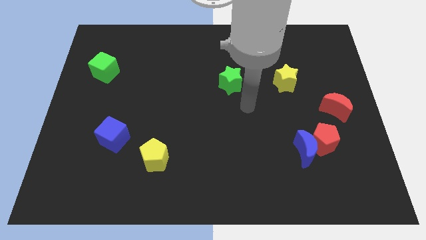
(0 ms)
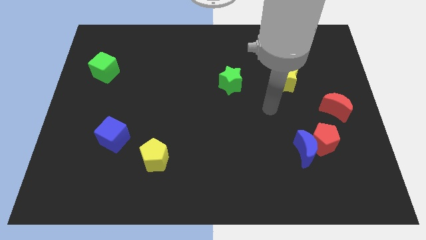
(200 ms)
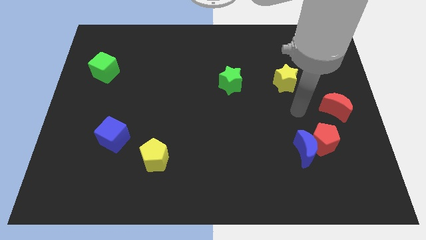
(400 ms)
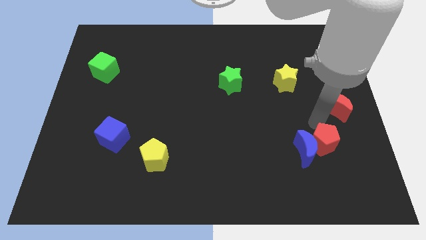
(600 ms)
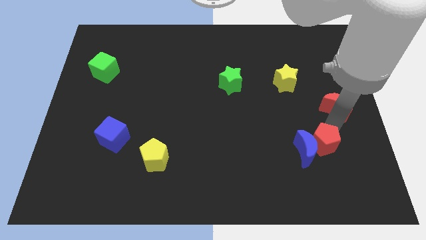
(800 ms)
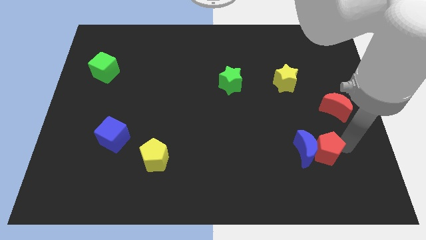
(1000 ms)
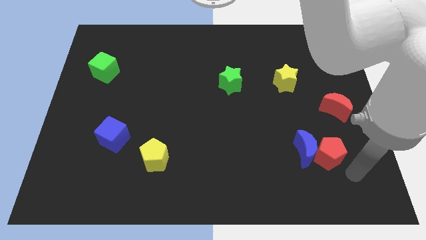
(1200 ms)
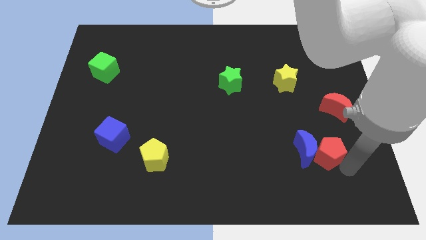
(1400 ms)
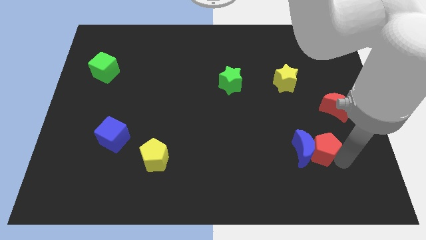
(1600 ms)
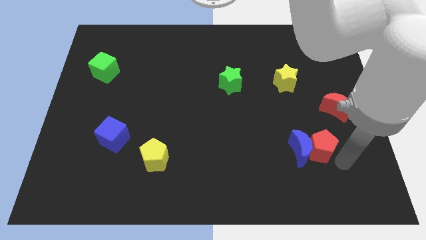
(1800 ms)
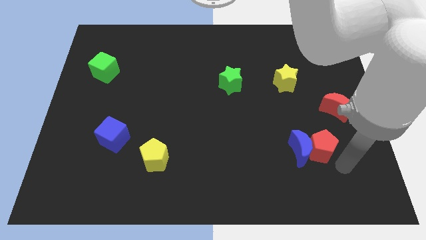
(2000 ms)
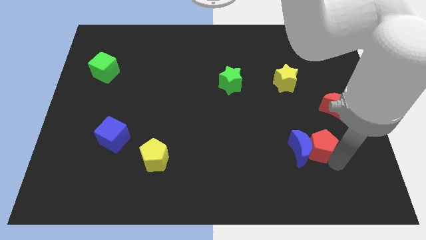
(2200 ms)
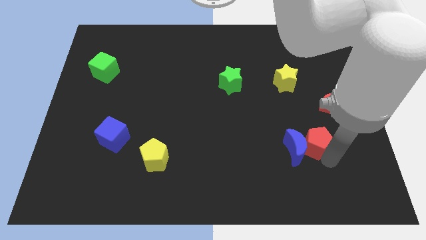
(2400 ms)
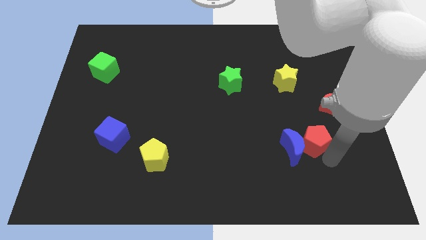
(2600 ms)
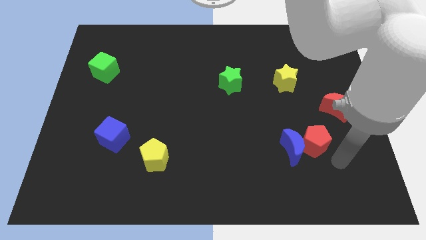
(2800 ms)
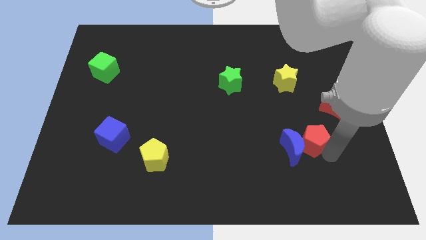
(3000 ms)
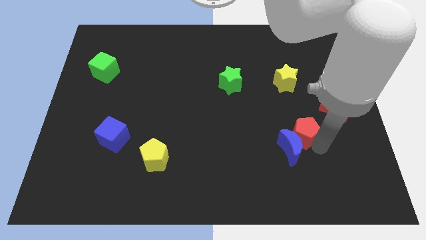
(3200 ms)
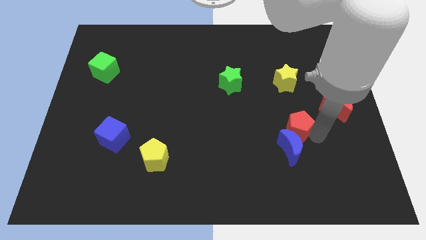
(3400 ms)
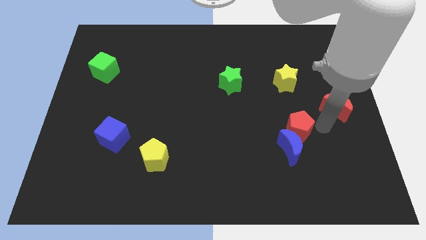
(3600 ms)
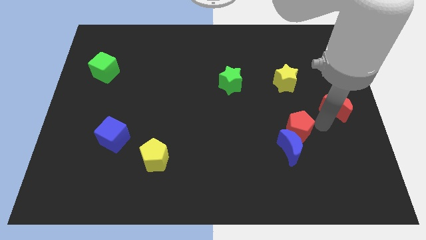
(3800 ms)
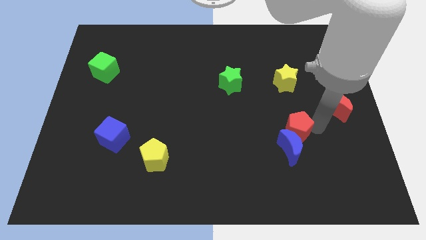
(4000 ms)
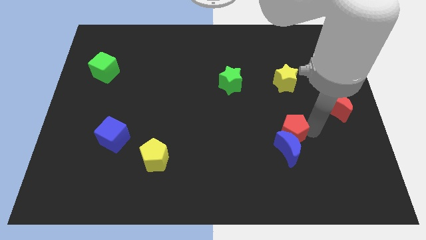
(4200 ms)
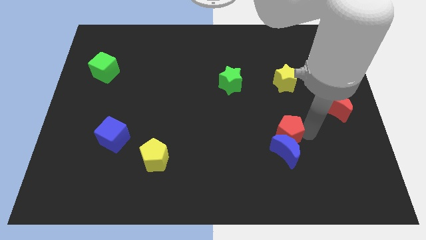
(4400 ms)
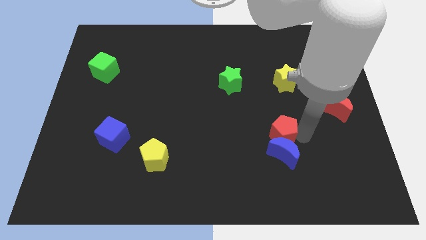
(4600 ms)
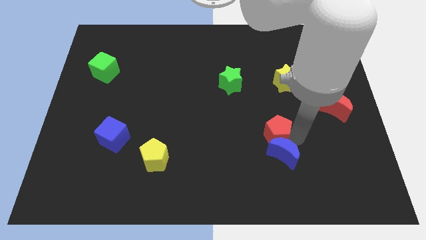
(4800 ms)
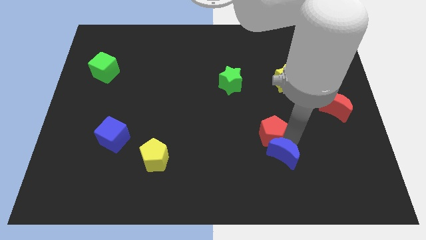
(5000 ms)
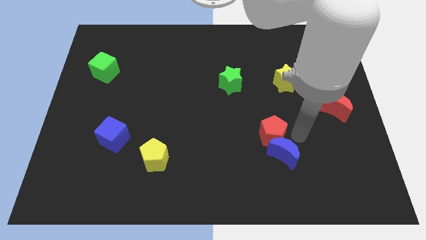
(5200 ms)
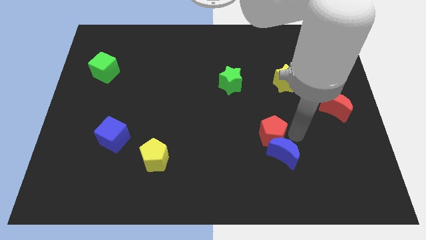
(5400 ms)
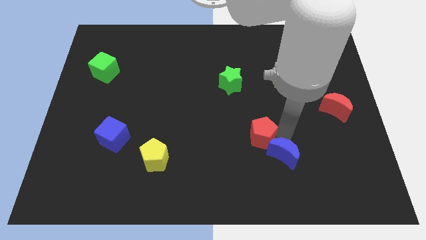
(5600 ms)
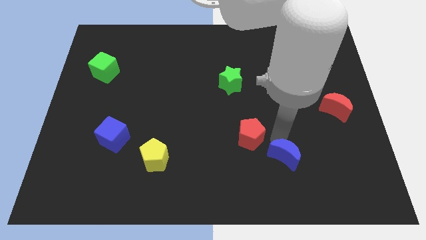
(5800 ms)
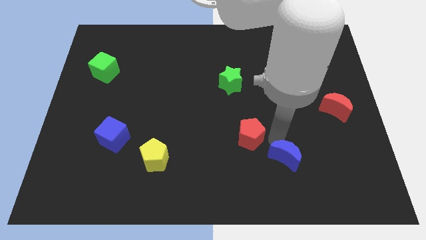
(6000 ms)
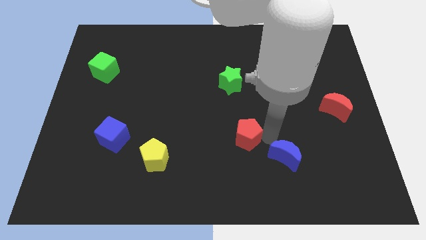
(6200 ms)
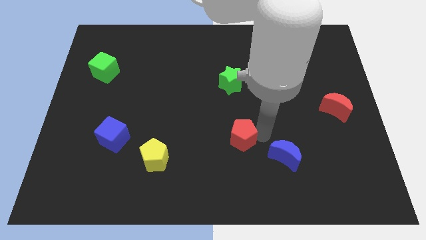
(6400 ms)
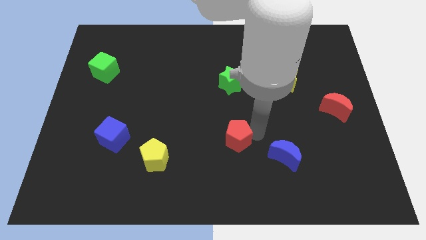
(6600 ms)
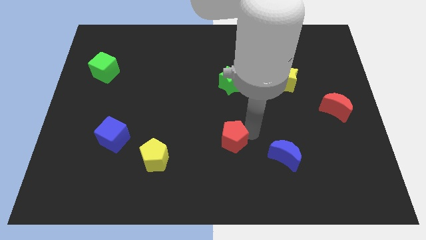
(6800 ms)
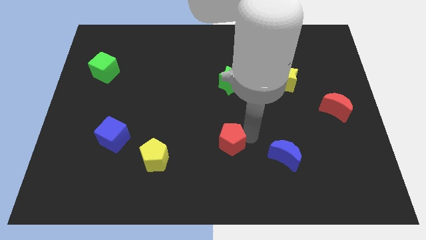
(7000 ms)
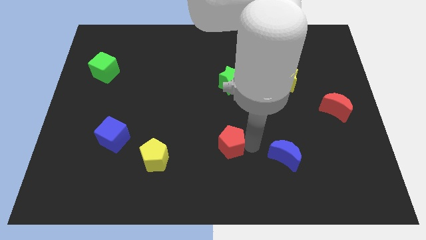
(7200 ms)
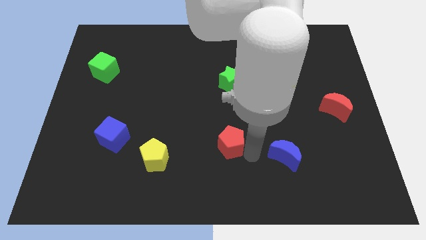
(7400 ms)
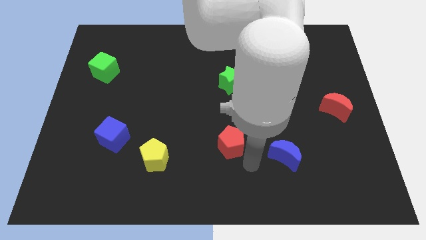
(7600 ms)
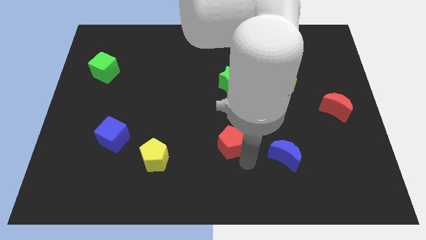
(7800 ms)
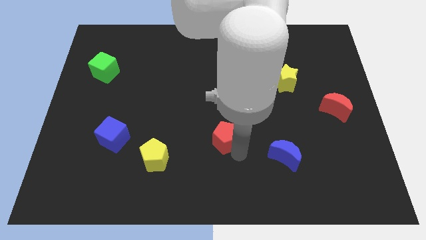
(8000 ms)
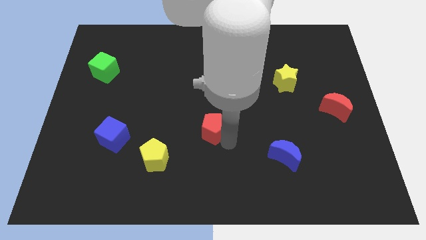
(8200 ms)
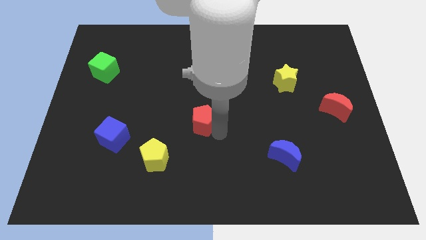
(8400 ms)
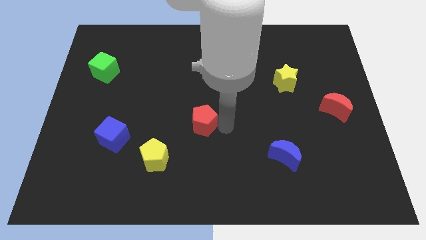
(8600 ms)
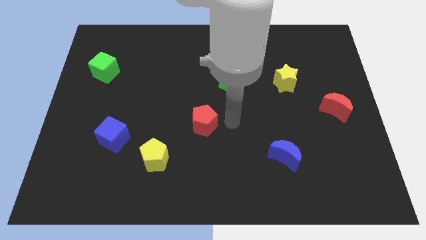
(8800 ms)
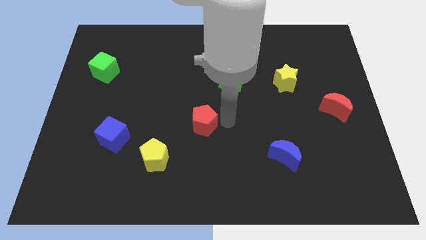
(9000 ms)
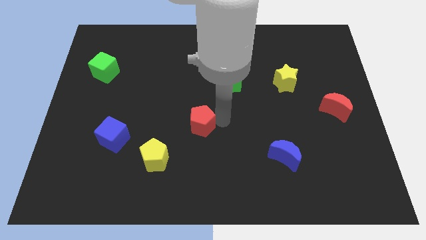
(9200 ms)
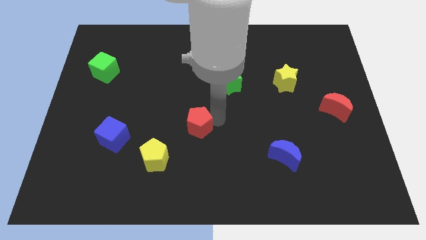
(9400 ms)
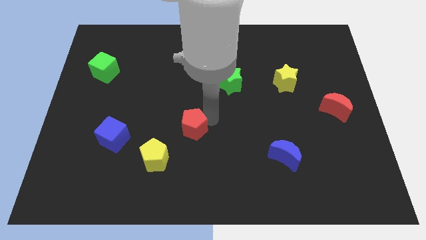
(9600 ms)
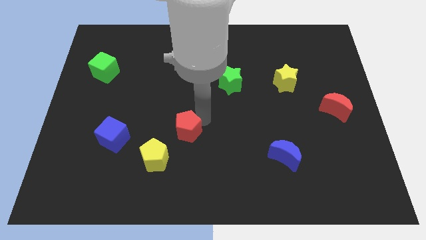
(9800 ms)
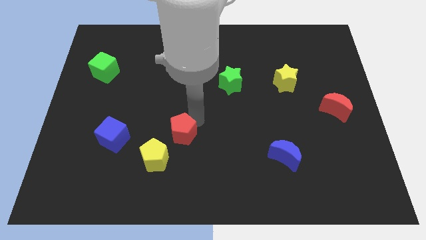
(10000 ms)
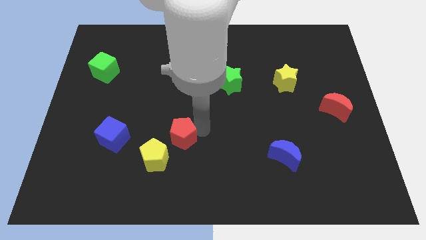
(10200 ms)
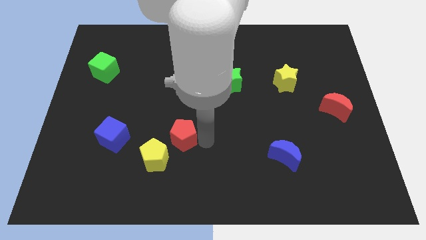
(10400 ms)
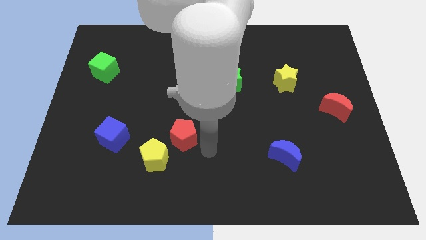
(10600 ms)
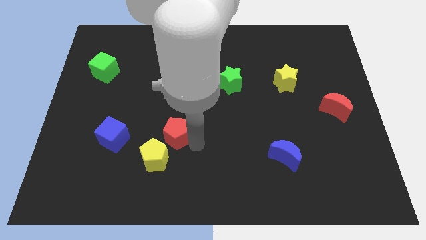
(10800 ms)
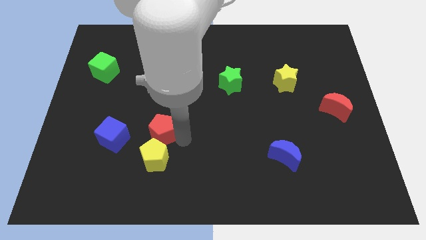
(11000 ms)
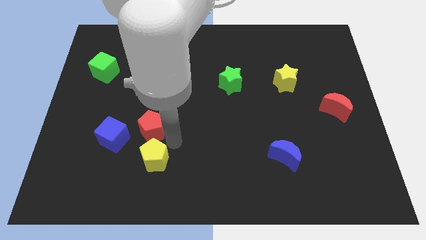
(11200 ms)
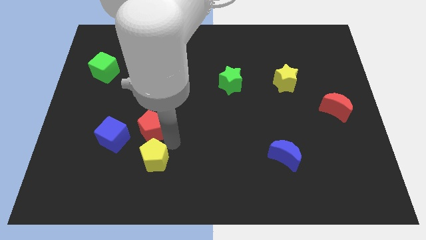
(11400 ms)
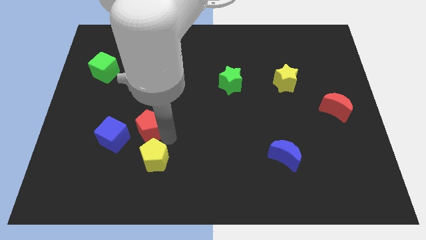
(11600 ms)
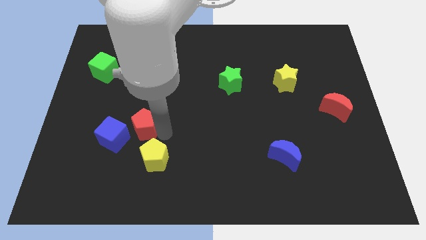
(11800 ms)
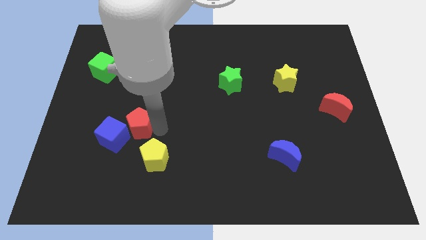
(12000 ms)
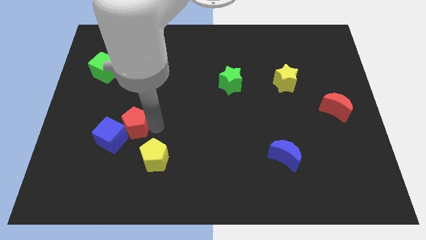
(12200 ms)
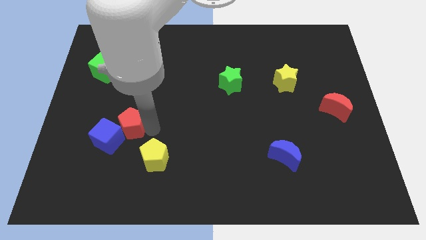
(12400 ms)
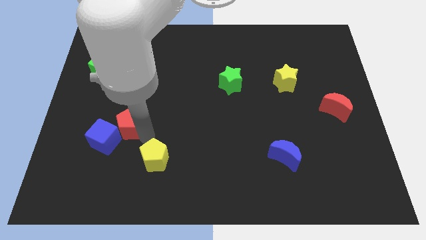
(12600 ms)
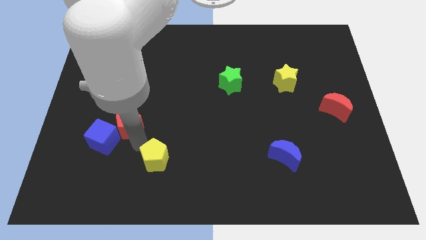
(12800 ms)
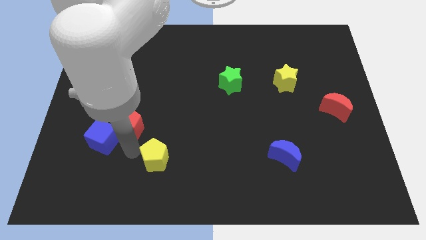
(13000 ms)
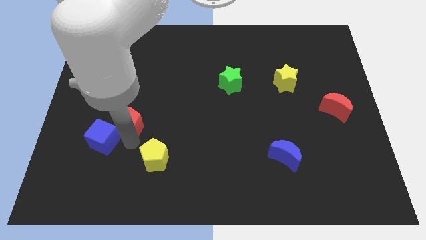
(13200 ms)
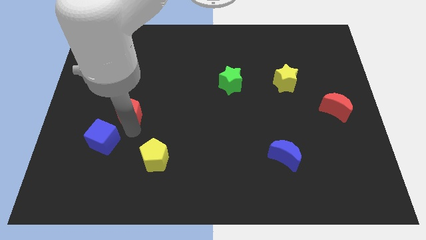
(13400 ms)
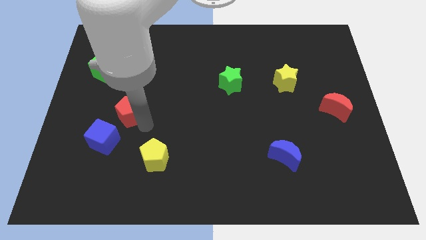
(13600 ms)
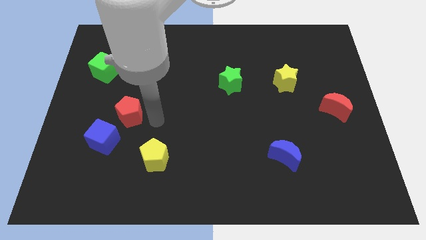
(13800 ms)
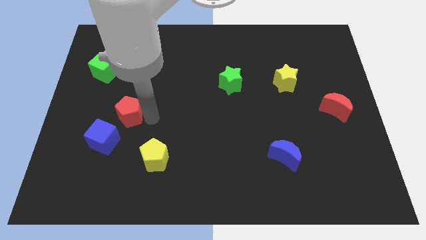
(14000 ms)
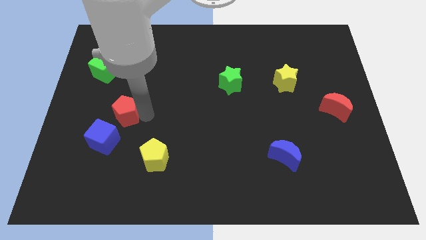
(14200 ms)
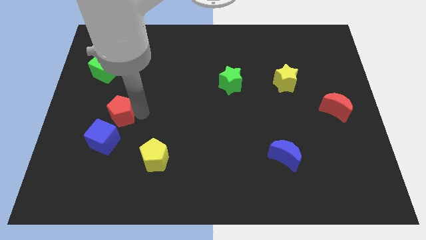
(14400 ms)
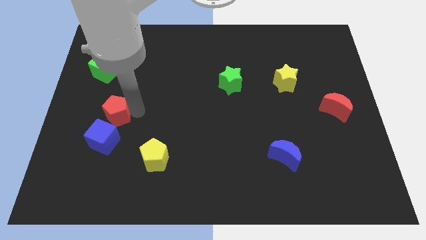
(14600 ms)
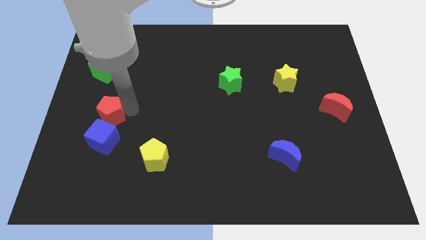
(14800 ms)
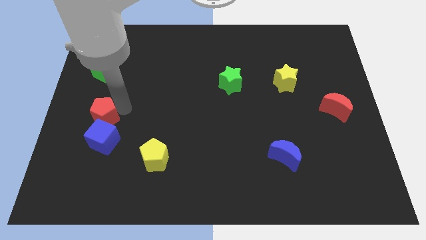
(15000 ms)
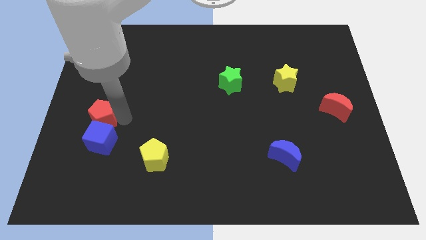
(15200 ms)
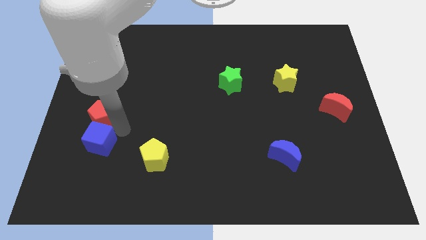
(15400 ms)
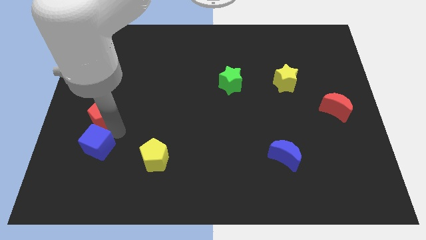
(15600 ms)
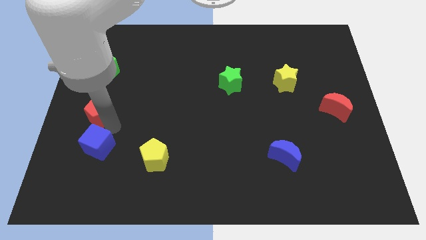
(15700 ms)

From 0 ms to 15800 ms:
slide the red pentagon to the center left
